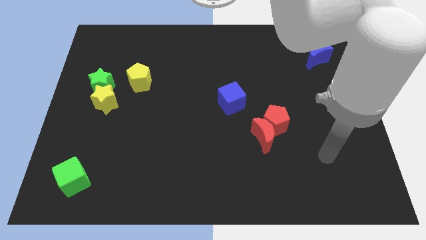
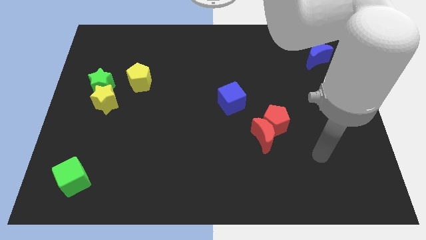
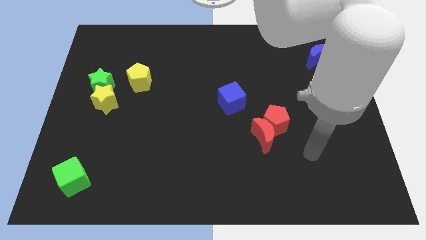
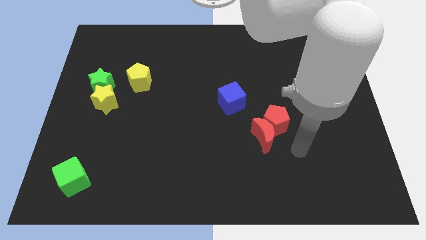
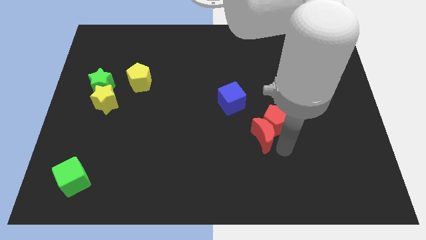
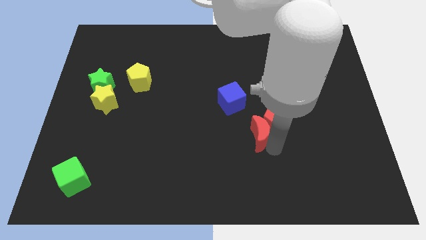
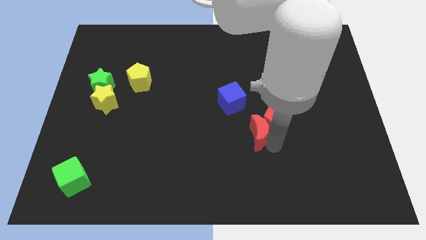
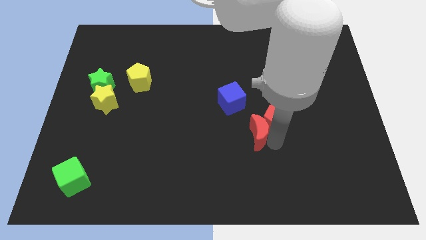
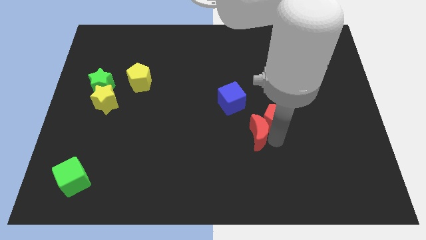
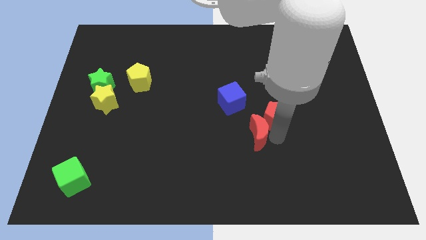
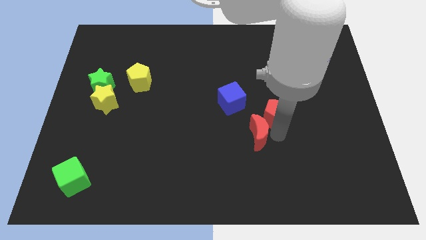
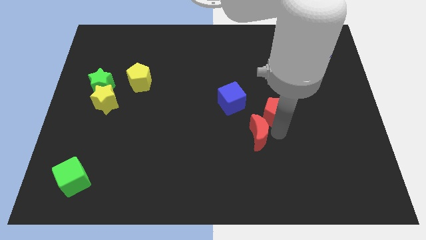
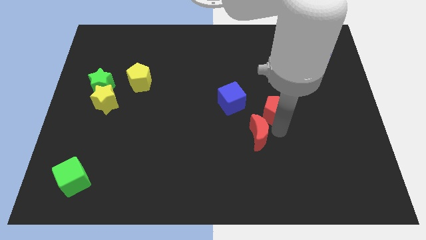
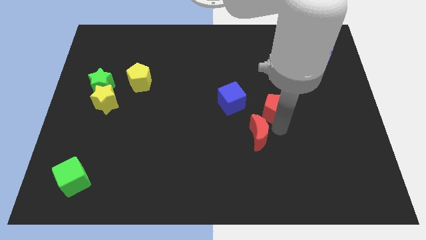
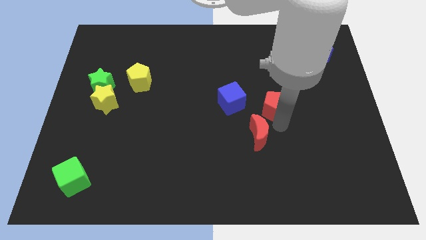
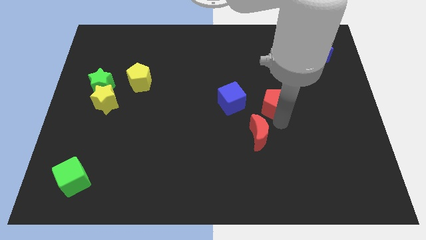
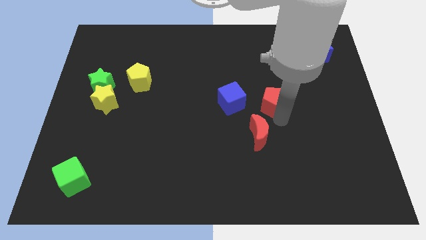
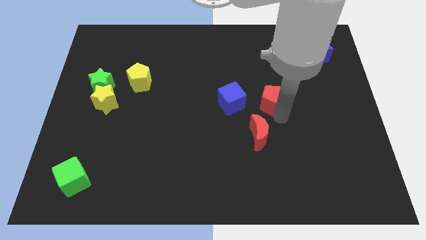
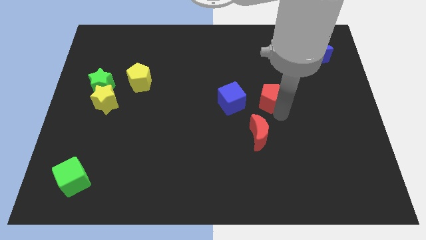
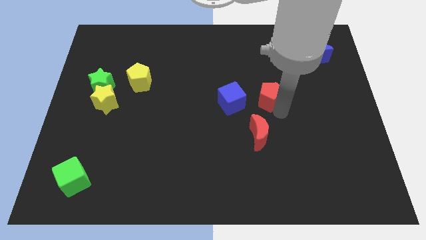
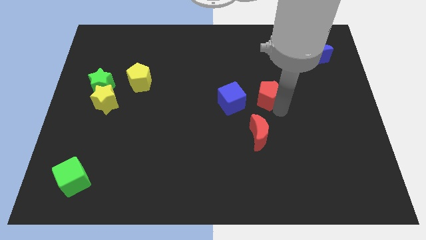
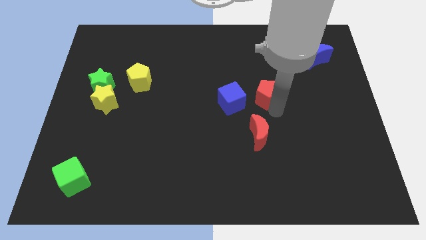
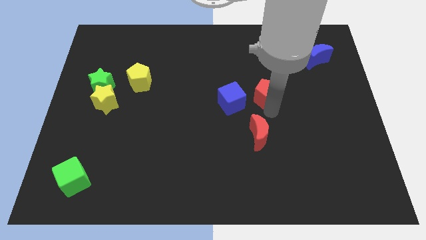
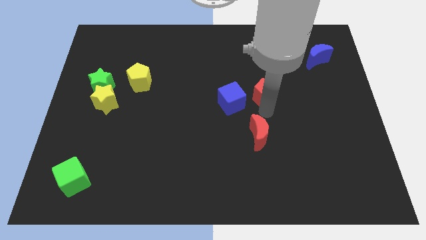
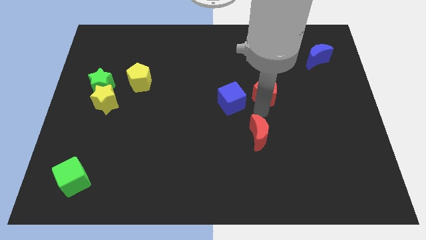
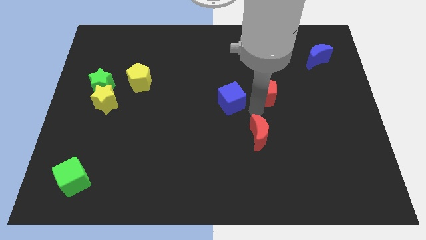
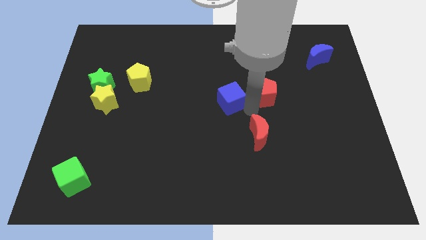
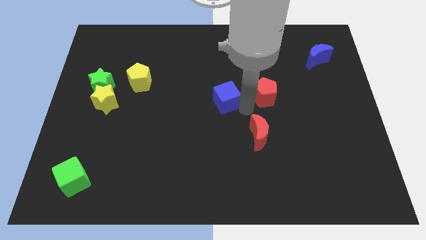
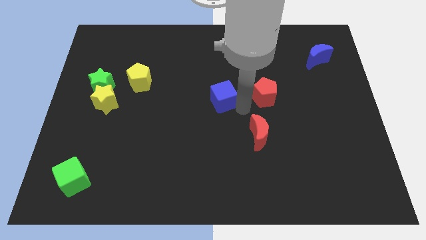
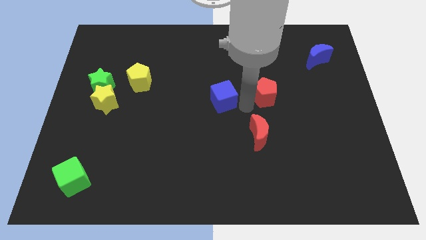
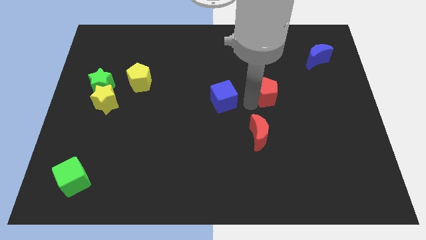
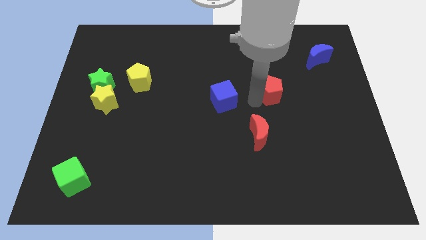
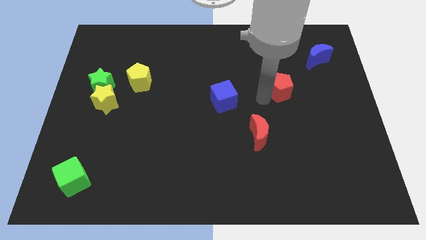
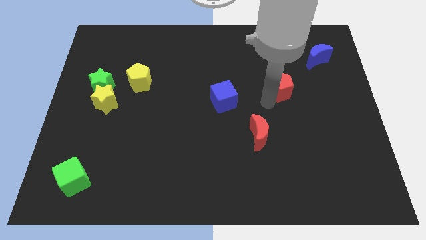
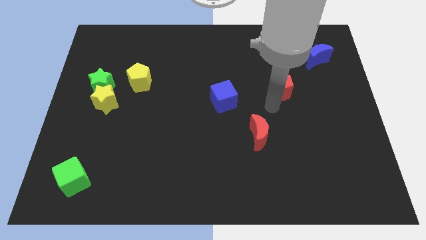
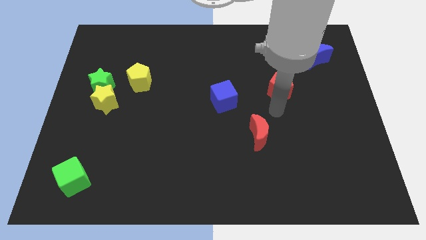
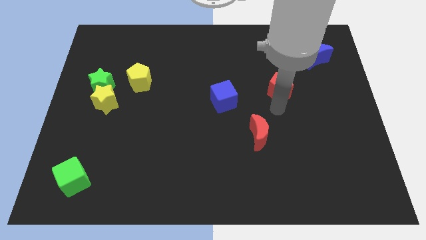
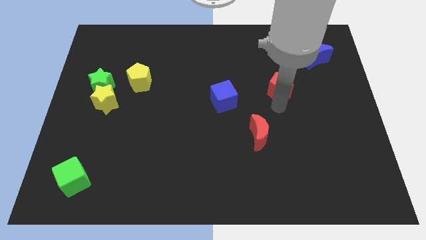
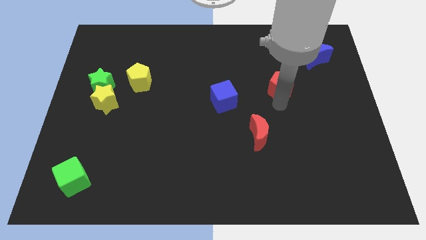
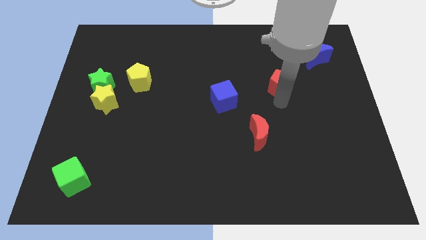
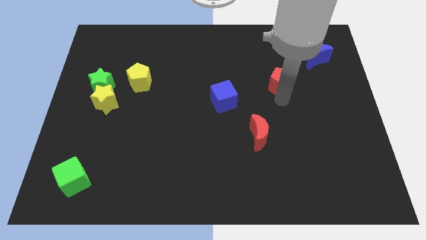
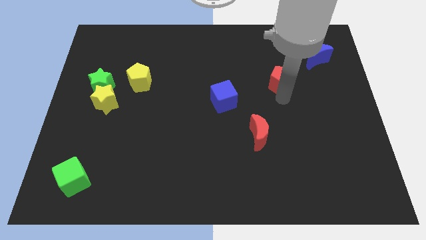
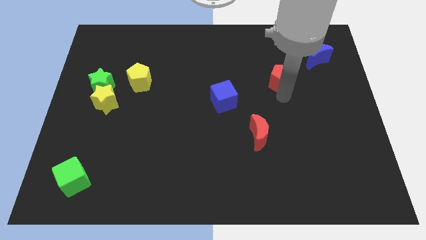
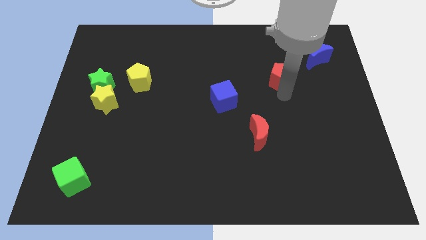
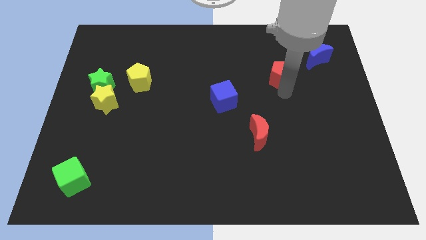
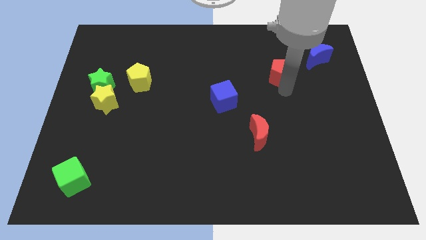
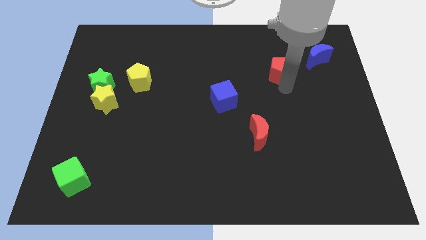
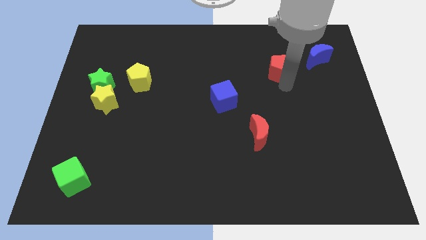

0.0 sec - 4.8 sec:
move the red pentagon left of the blue moon

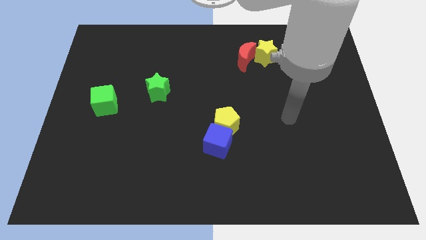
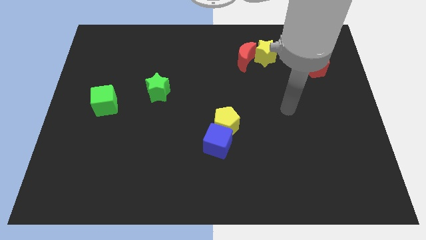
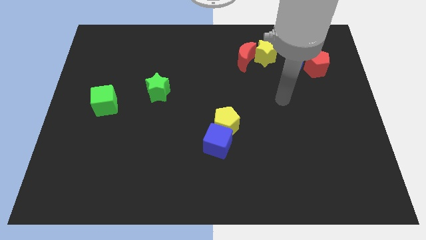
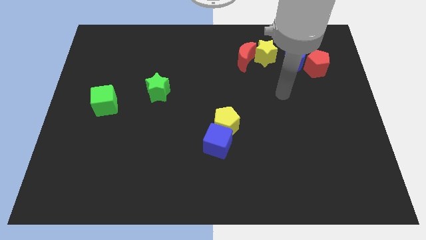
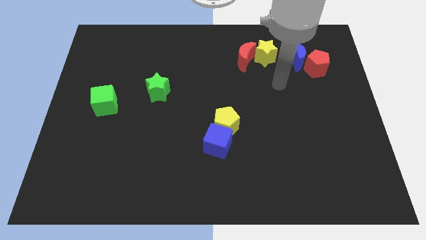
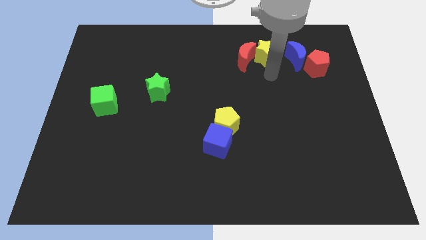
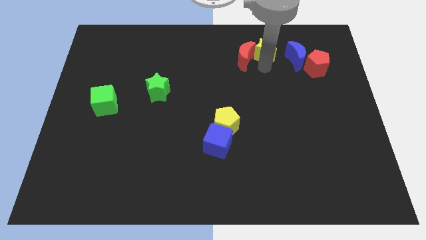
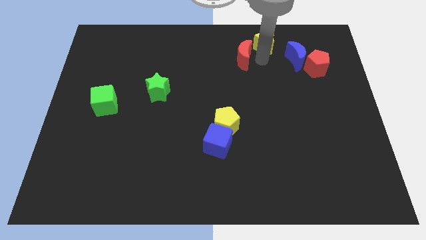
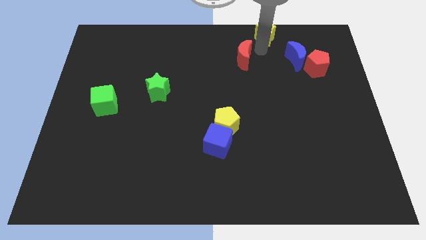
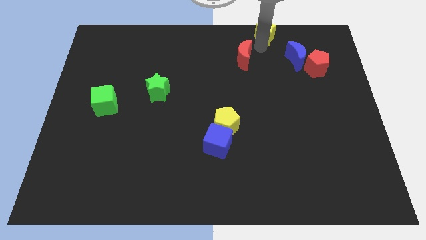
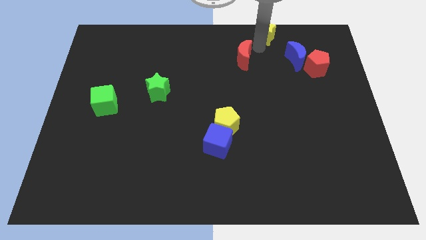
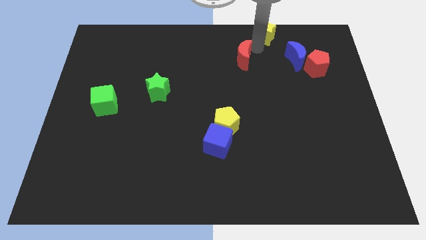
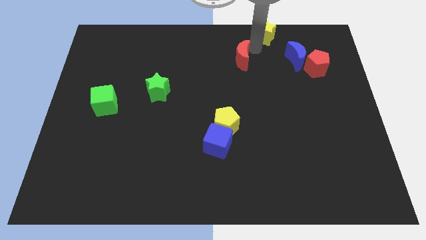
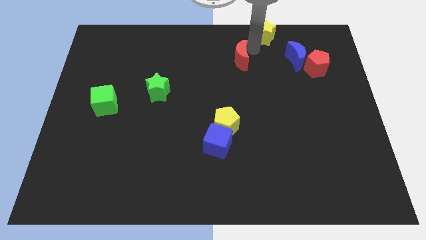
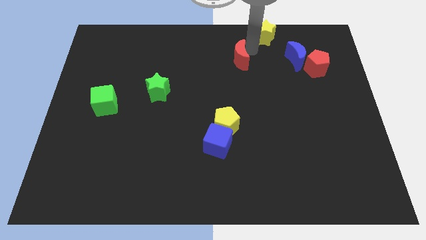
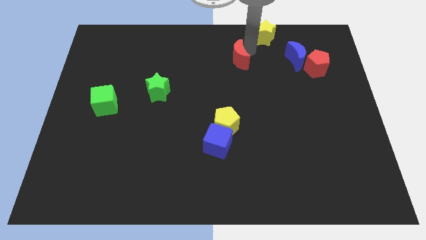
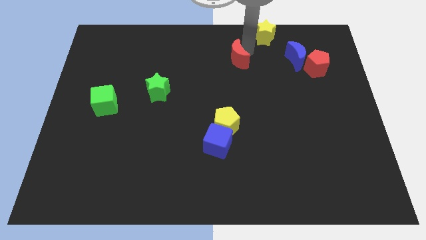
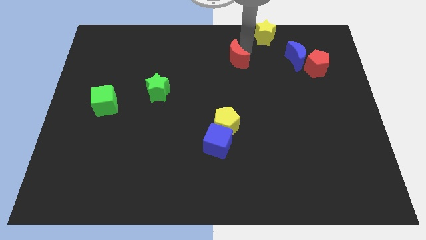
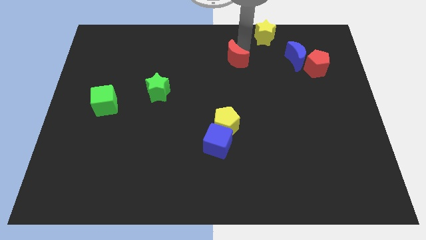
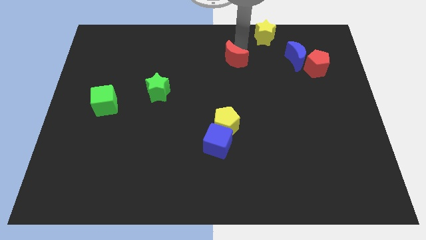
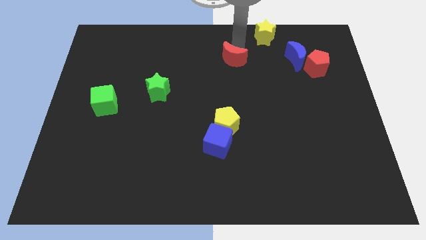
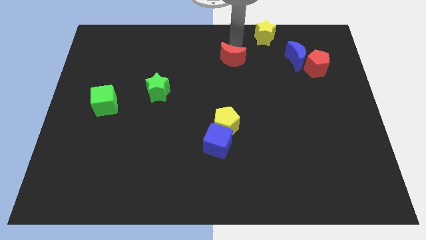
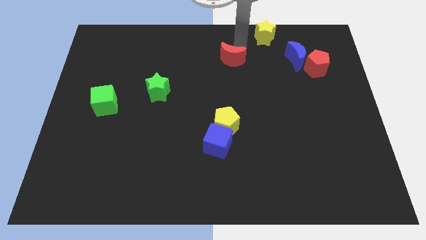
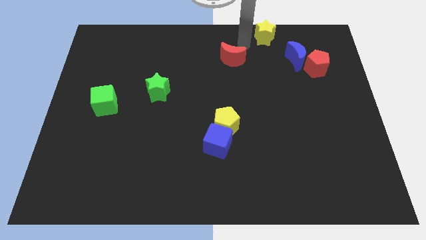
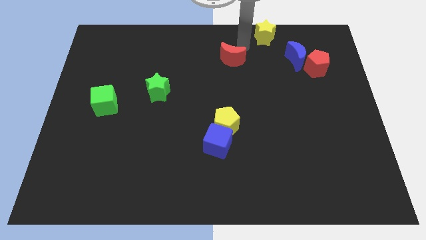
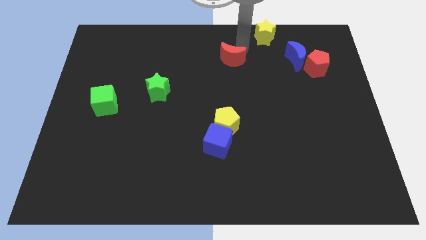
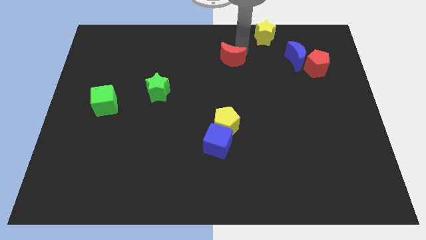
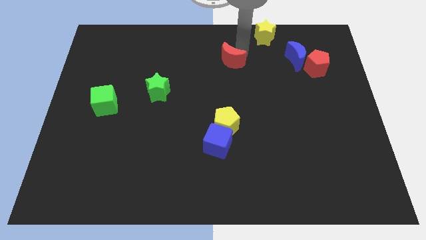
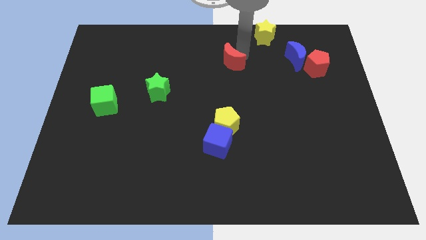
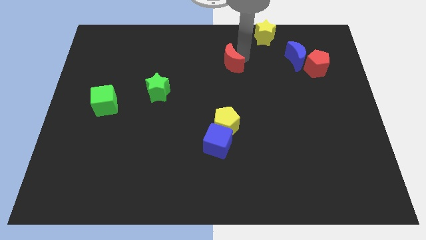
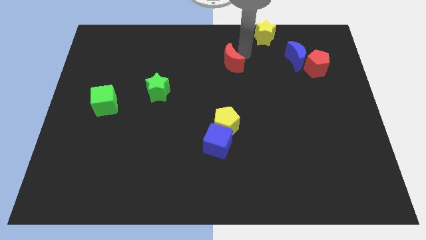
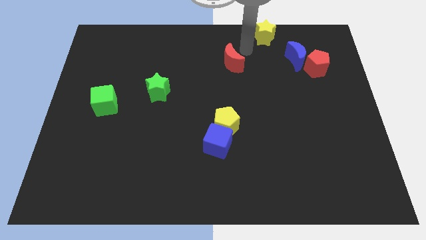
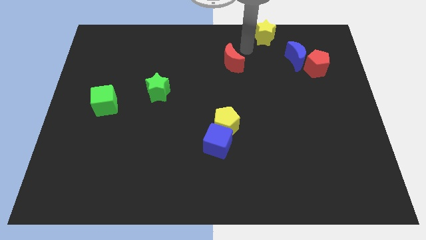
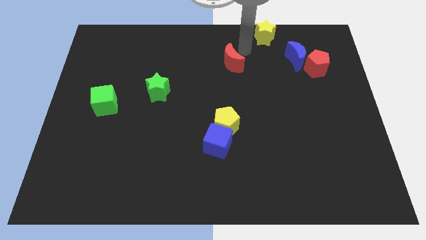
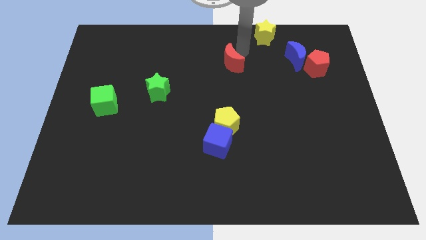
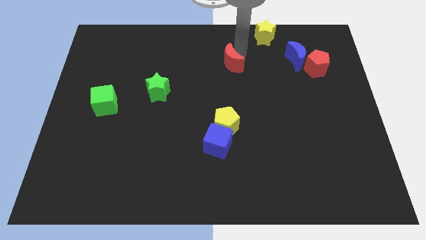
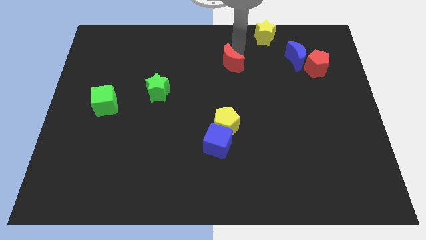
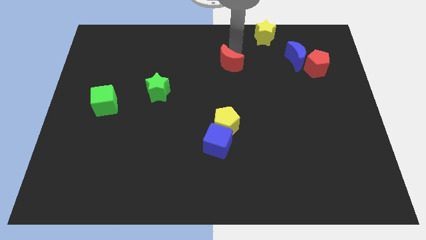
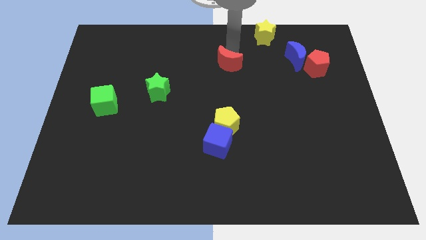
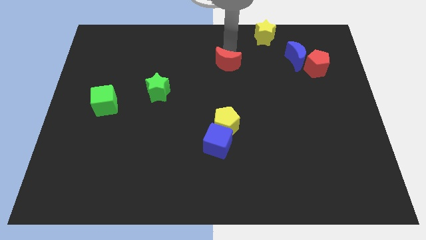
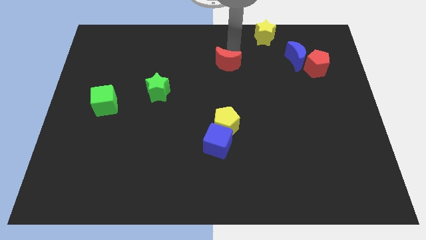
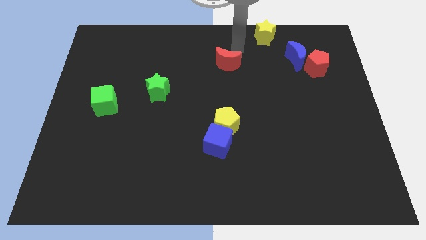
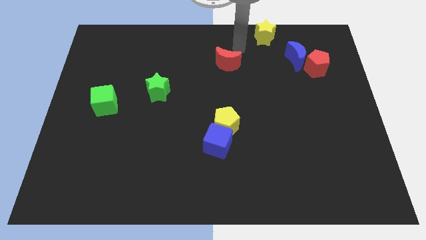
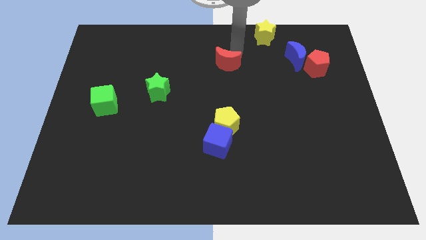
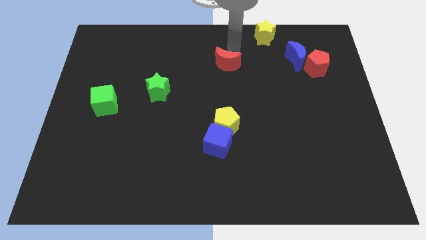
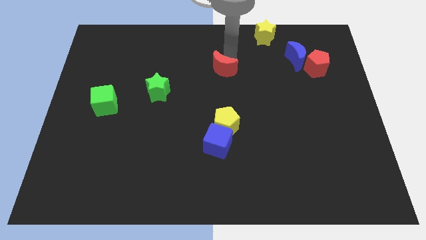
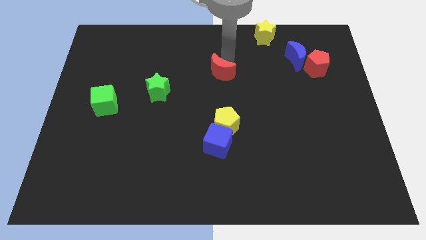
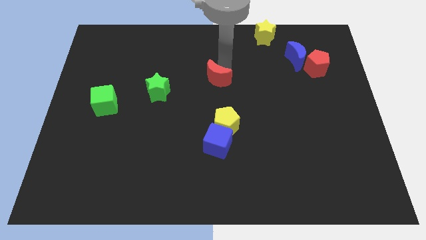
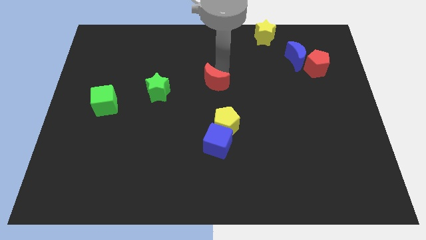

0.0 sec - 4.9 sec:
push the red moon just right of the green star
